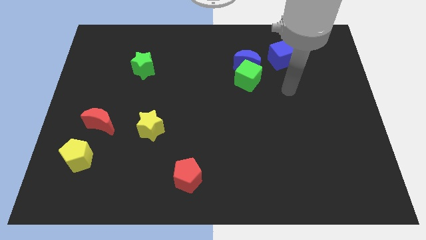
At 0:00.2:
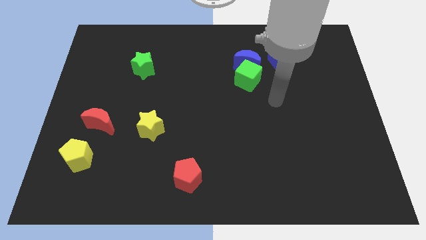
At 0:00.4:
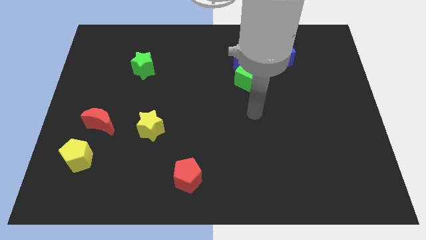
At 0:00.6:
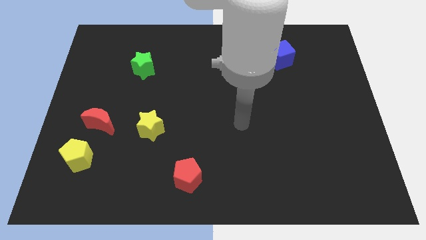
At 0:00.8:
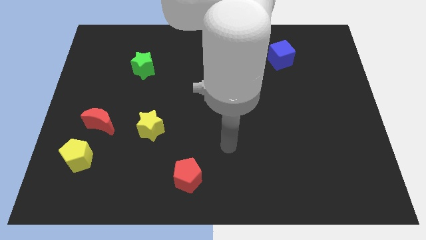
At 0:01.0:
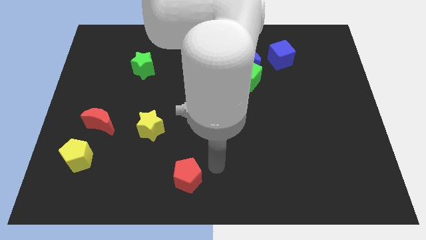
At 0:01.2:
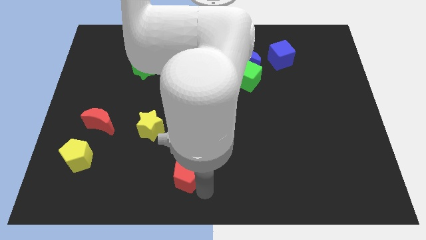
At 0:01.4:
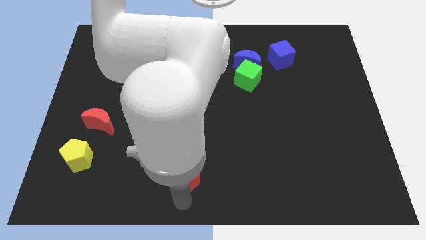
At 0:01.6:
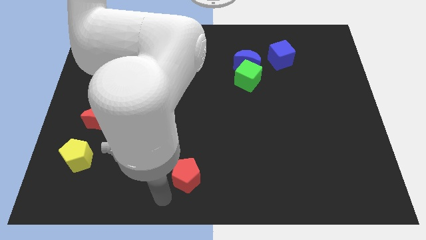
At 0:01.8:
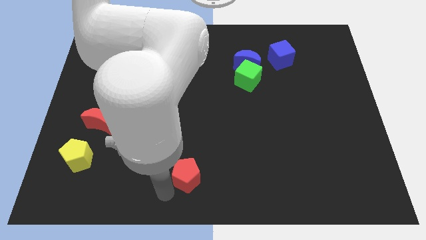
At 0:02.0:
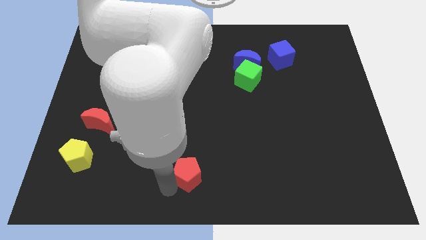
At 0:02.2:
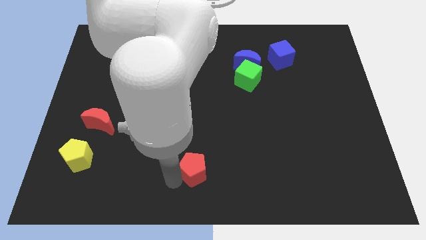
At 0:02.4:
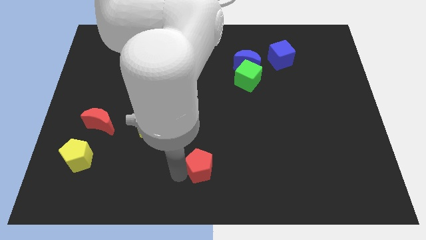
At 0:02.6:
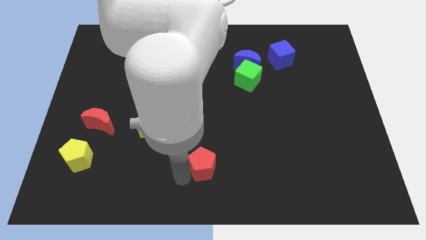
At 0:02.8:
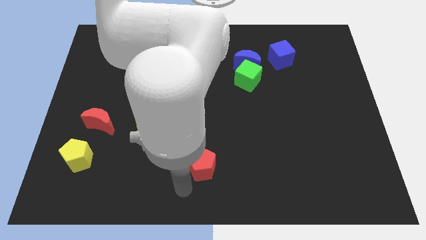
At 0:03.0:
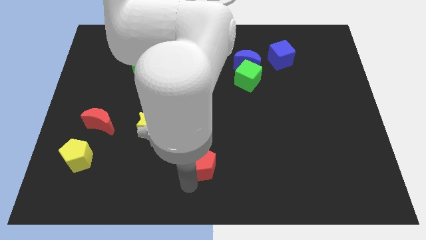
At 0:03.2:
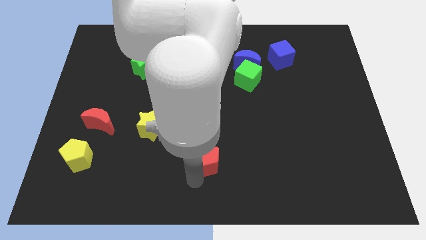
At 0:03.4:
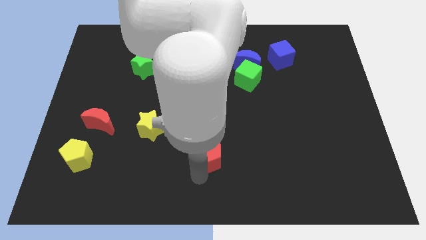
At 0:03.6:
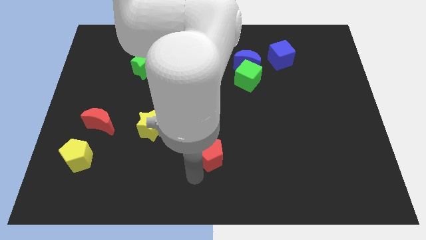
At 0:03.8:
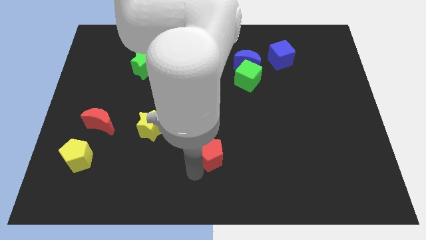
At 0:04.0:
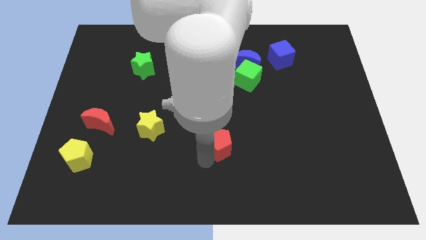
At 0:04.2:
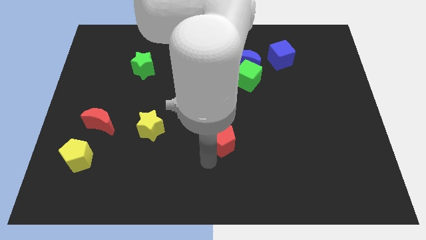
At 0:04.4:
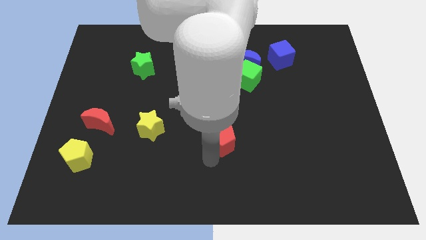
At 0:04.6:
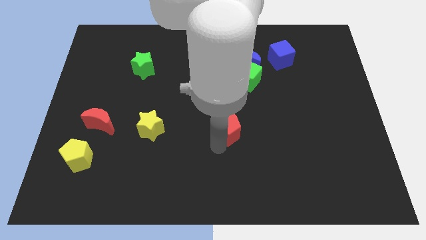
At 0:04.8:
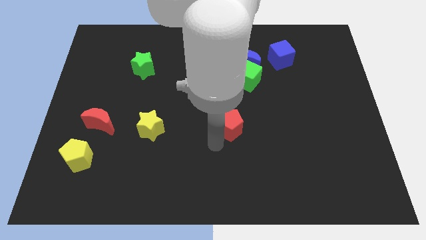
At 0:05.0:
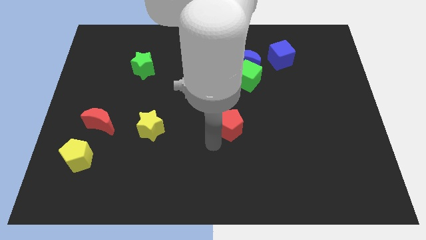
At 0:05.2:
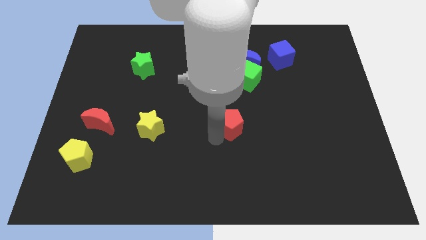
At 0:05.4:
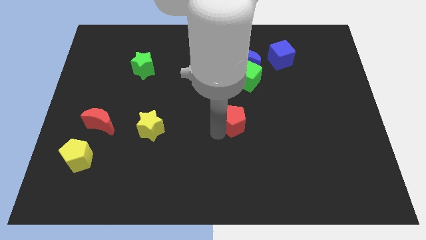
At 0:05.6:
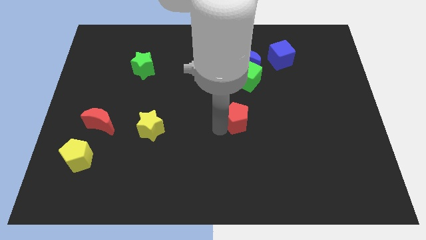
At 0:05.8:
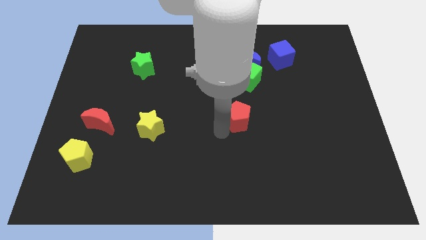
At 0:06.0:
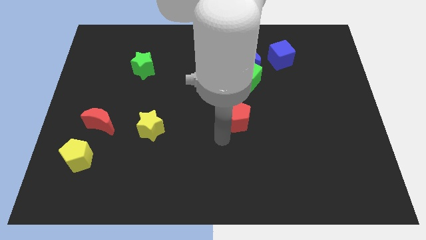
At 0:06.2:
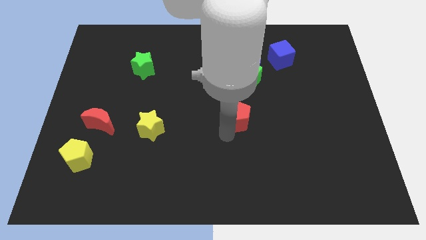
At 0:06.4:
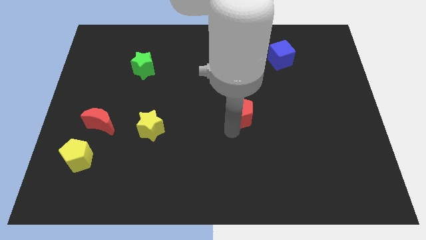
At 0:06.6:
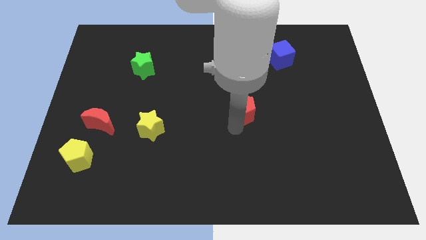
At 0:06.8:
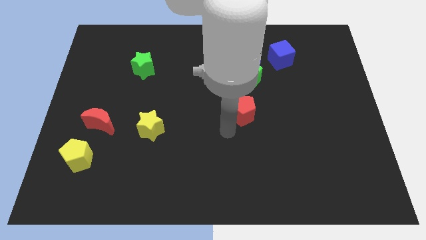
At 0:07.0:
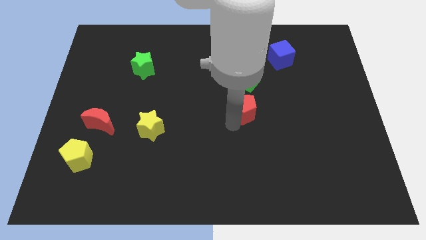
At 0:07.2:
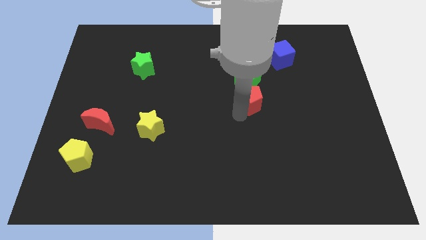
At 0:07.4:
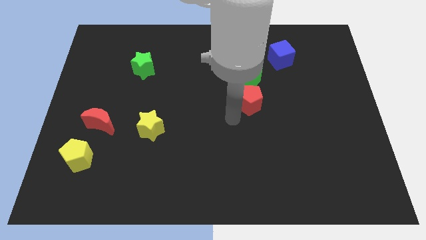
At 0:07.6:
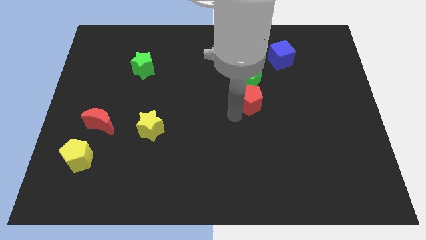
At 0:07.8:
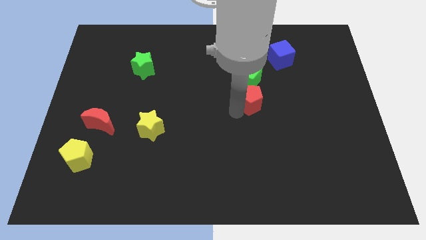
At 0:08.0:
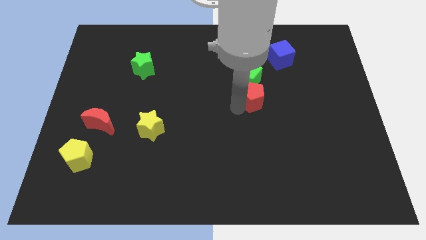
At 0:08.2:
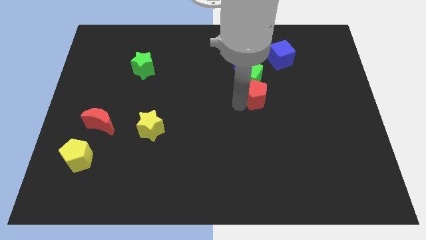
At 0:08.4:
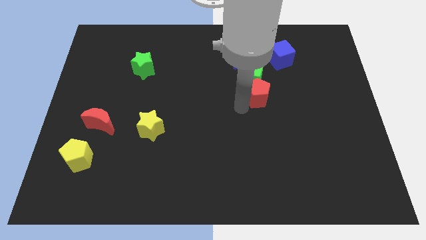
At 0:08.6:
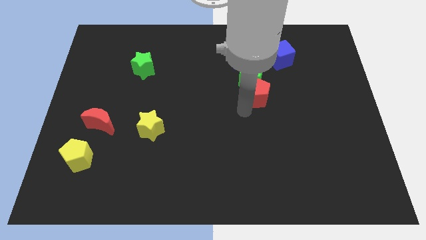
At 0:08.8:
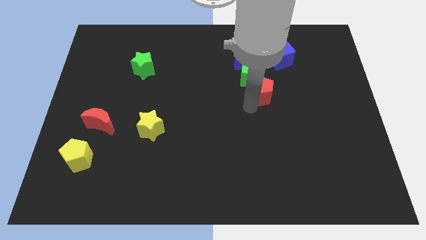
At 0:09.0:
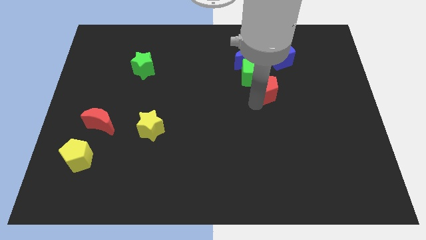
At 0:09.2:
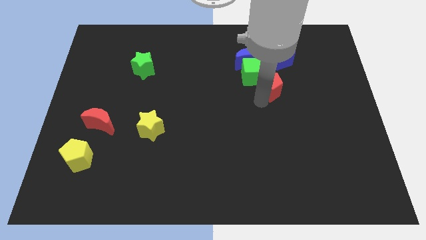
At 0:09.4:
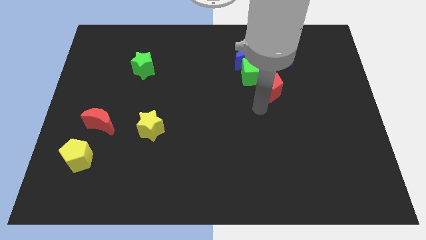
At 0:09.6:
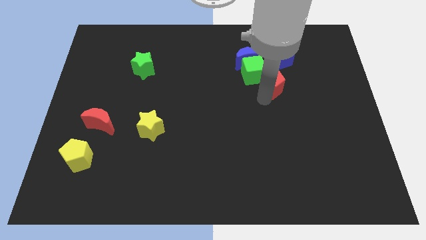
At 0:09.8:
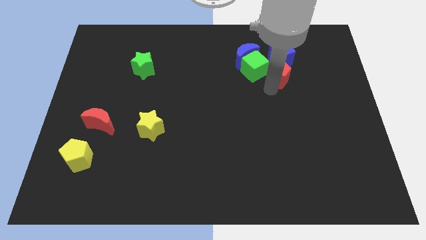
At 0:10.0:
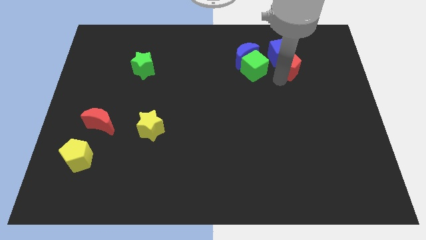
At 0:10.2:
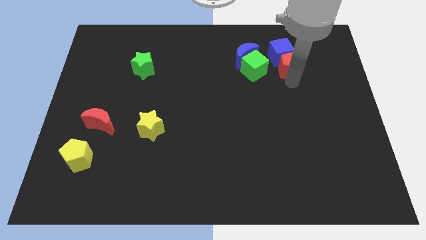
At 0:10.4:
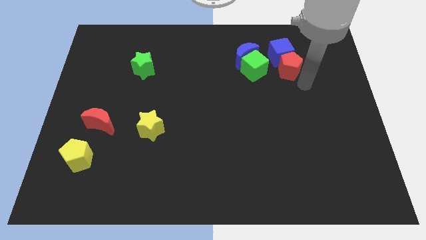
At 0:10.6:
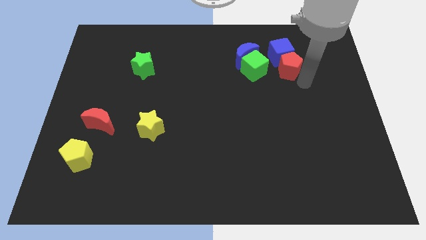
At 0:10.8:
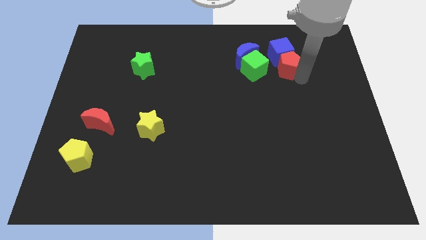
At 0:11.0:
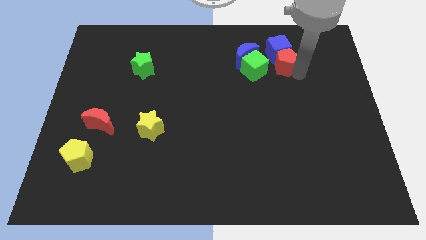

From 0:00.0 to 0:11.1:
slide the red pentagon to the top right side of the green cube

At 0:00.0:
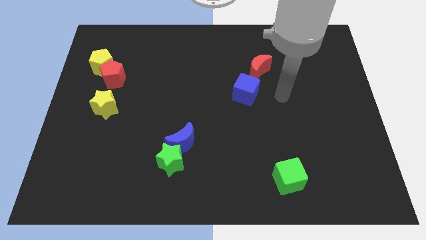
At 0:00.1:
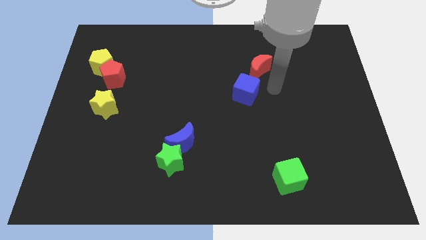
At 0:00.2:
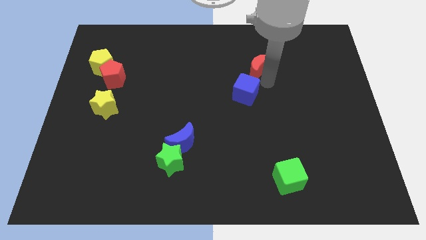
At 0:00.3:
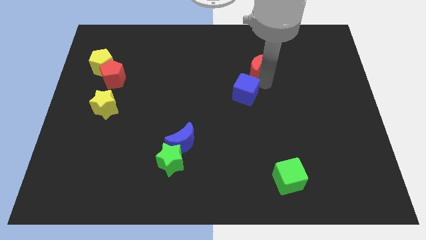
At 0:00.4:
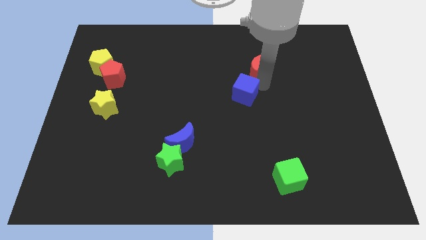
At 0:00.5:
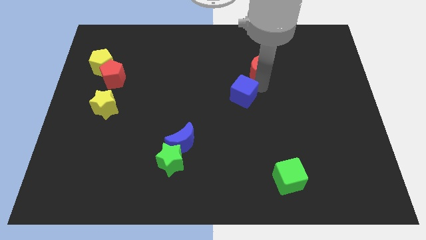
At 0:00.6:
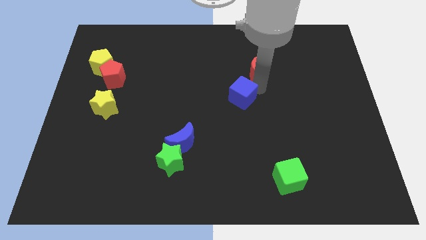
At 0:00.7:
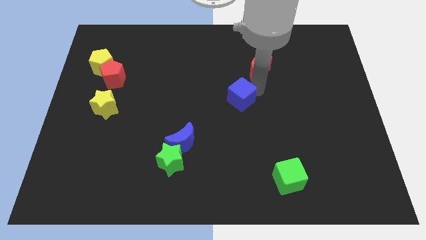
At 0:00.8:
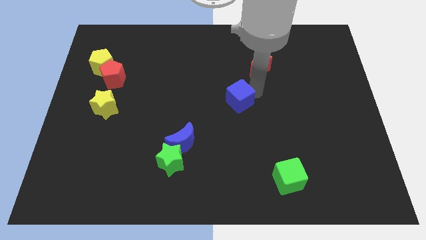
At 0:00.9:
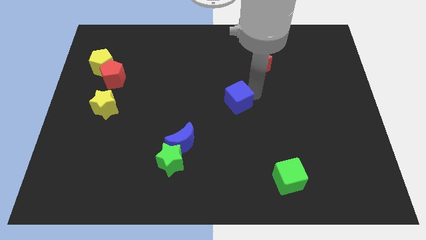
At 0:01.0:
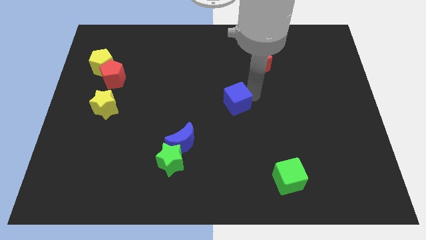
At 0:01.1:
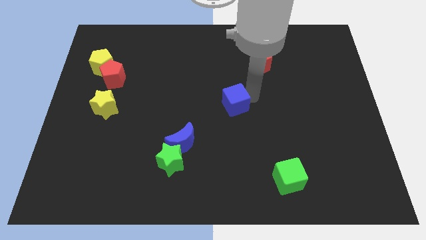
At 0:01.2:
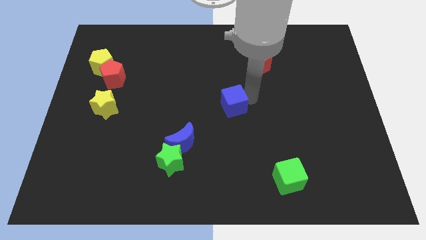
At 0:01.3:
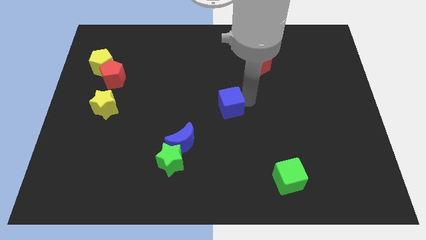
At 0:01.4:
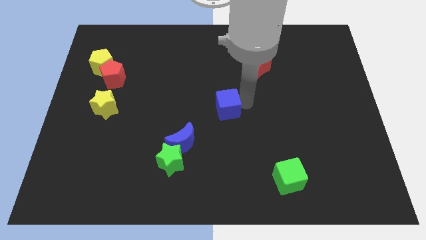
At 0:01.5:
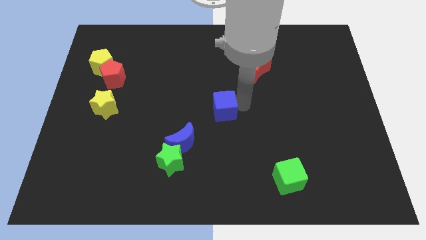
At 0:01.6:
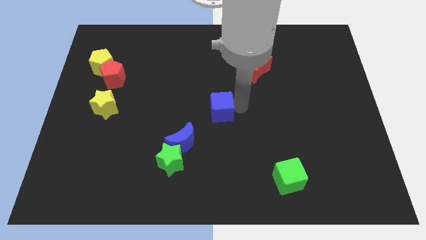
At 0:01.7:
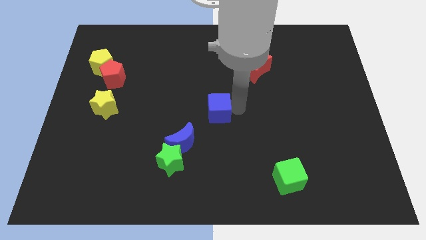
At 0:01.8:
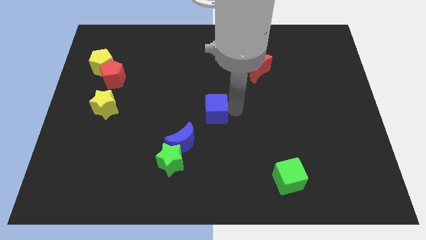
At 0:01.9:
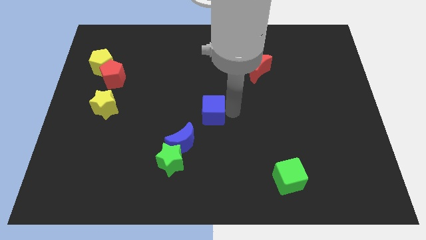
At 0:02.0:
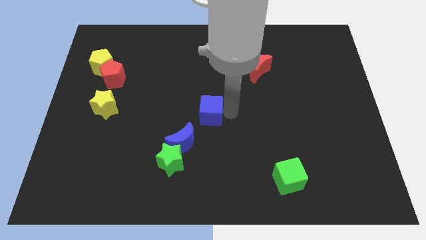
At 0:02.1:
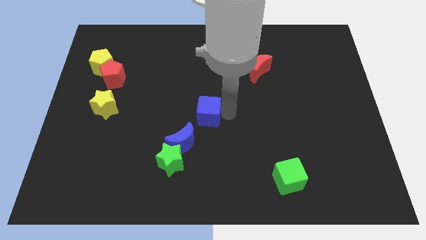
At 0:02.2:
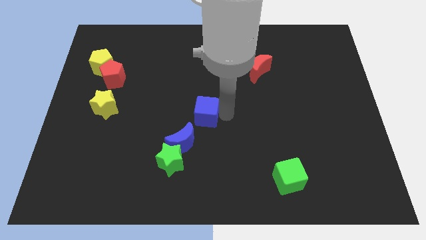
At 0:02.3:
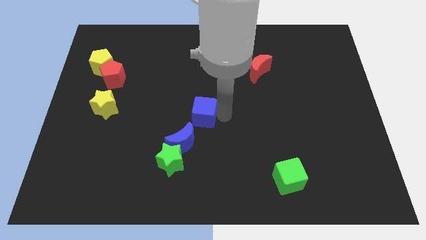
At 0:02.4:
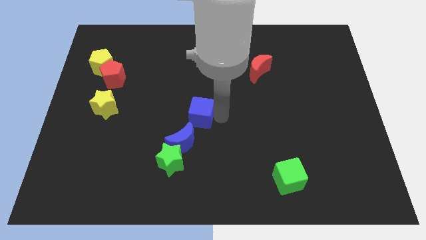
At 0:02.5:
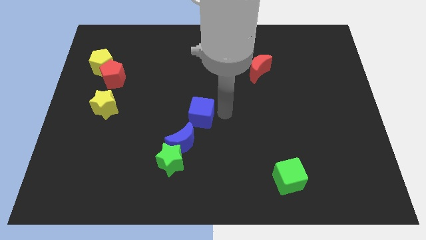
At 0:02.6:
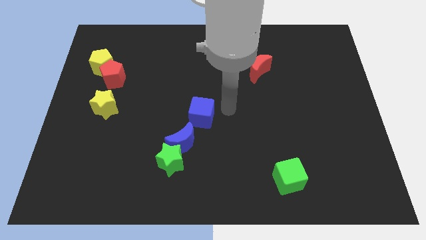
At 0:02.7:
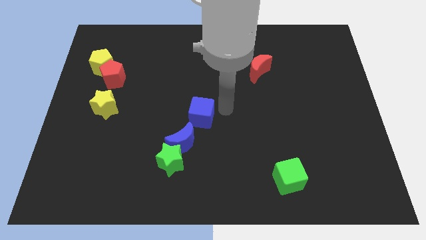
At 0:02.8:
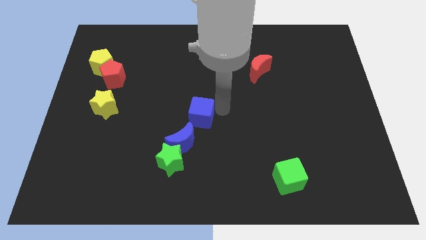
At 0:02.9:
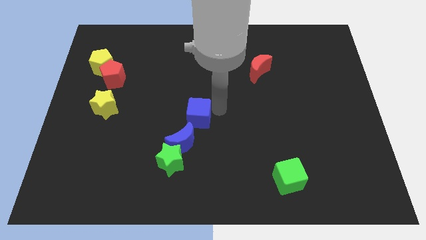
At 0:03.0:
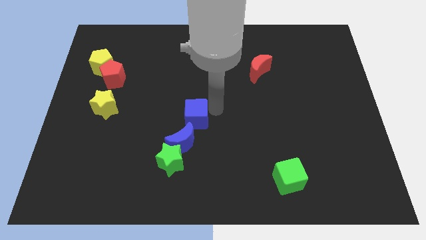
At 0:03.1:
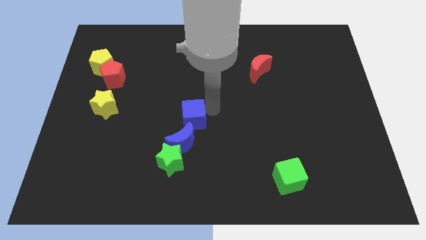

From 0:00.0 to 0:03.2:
slide the blue cube to the top of the green star
